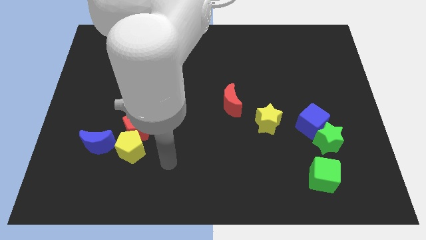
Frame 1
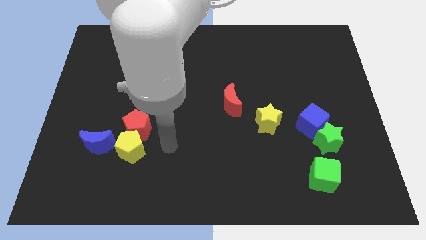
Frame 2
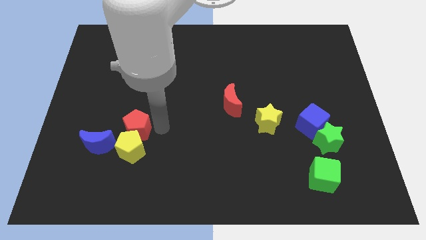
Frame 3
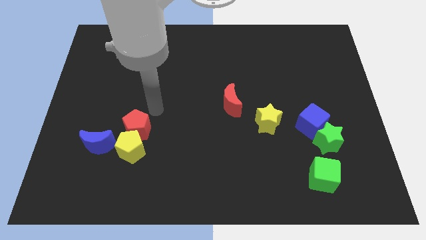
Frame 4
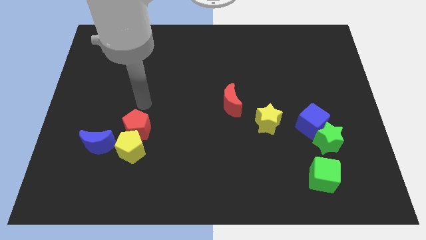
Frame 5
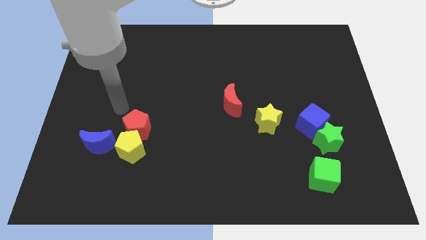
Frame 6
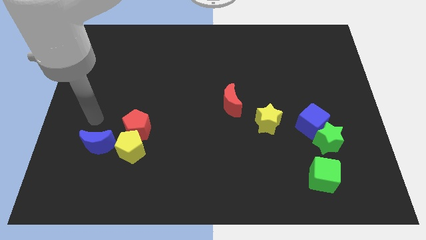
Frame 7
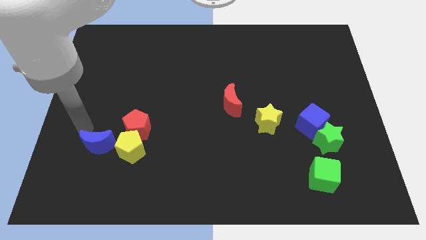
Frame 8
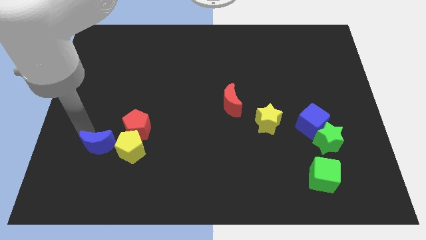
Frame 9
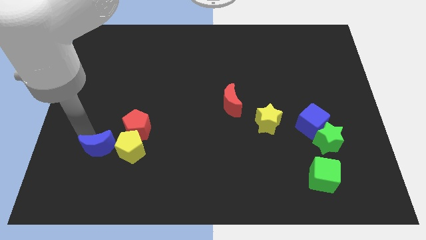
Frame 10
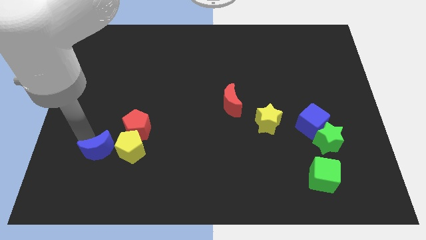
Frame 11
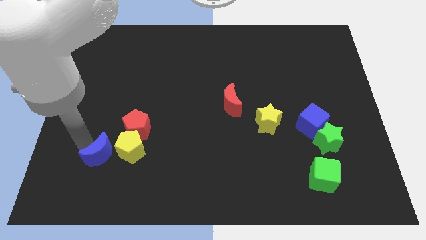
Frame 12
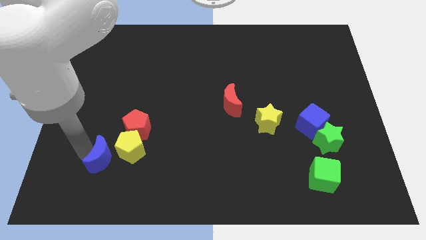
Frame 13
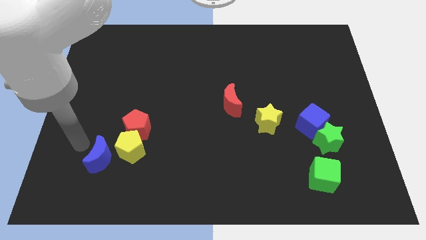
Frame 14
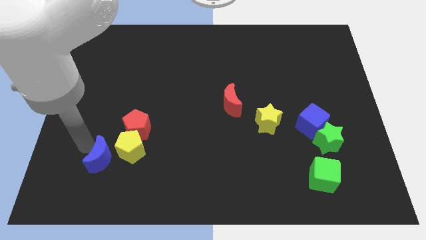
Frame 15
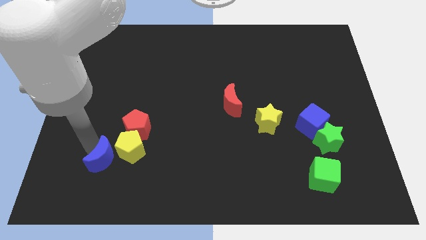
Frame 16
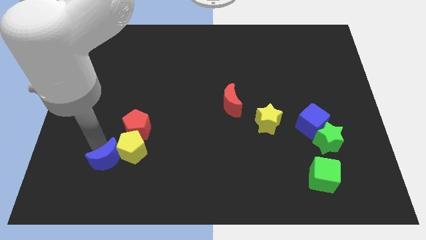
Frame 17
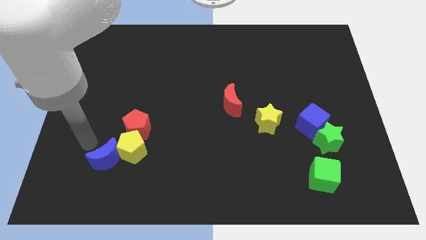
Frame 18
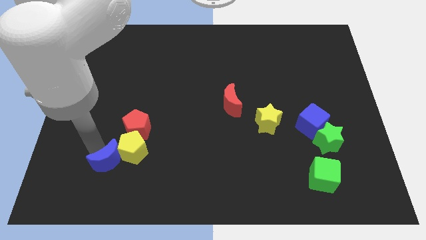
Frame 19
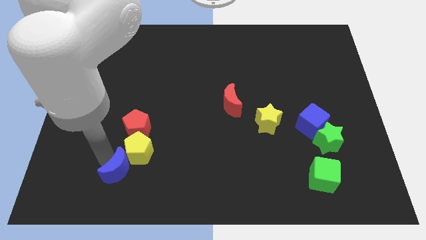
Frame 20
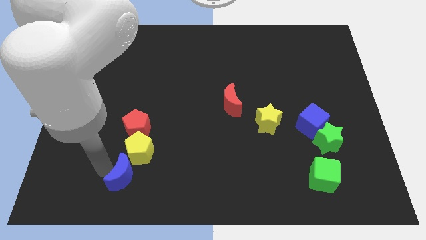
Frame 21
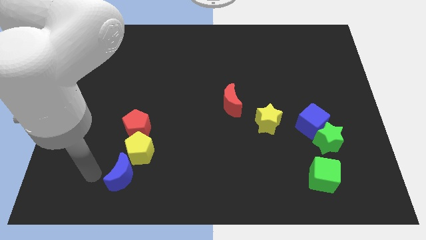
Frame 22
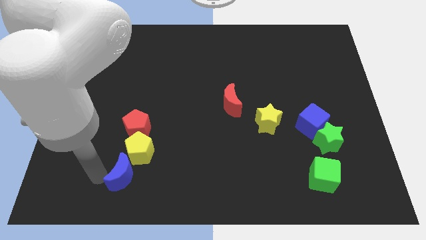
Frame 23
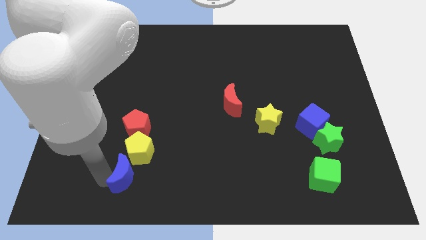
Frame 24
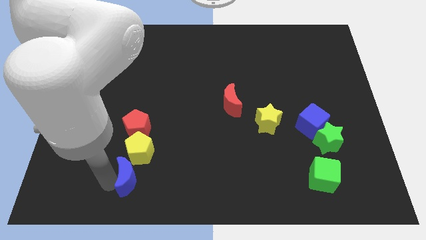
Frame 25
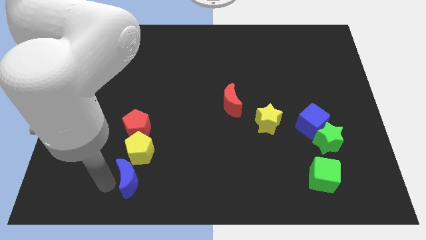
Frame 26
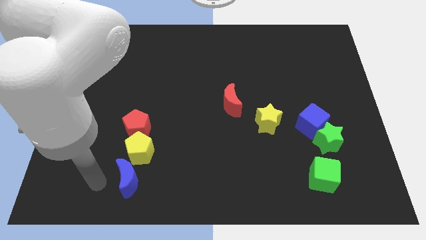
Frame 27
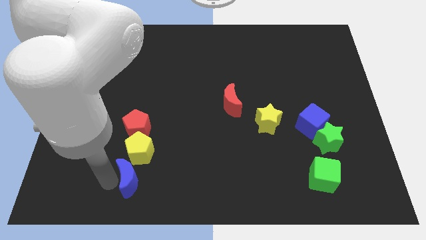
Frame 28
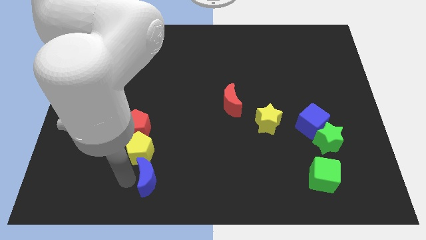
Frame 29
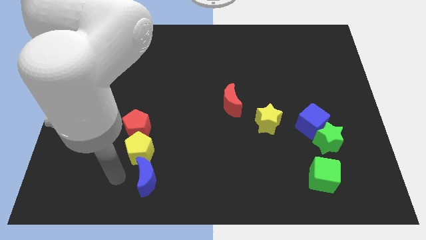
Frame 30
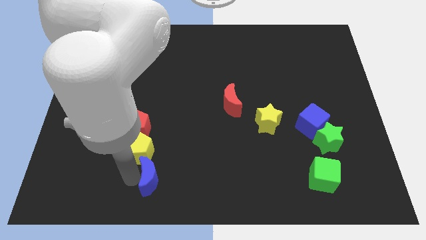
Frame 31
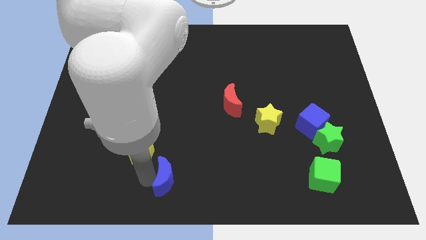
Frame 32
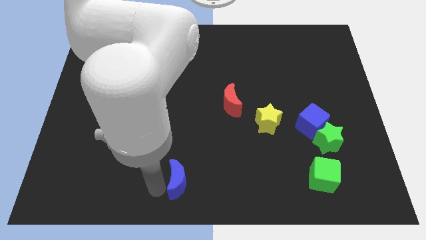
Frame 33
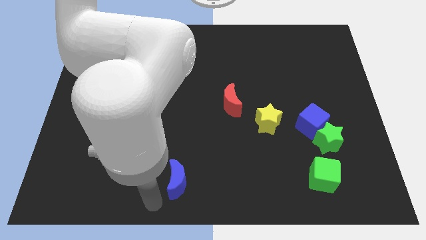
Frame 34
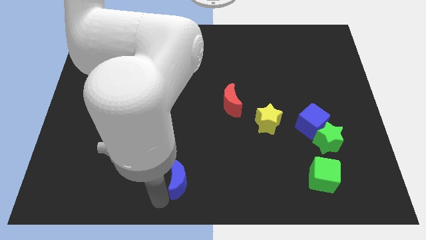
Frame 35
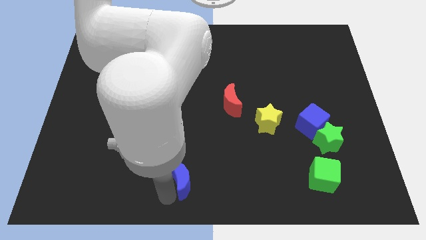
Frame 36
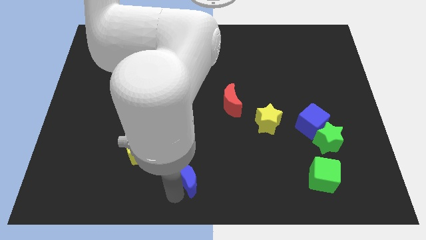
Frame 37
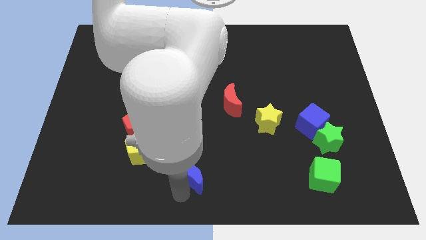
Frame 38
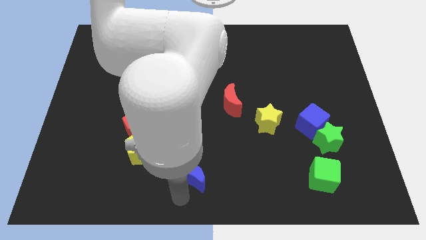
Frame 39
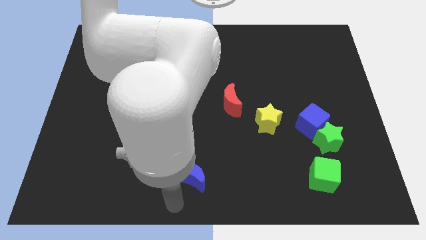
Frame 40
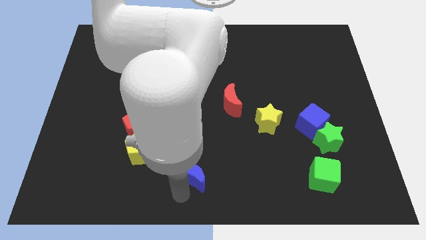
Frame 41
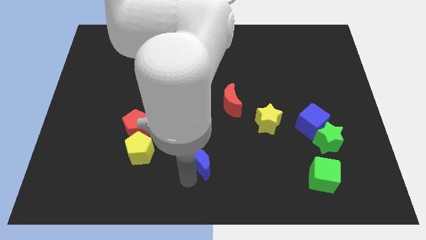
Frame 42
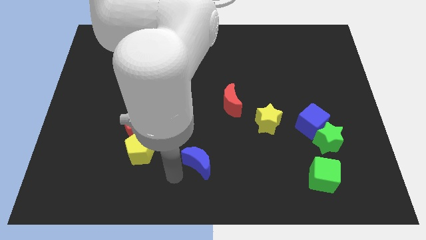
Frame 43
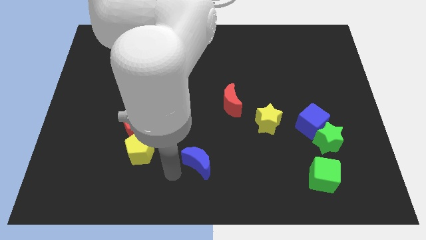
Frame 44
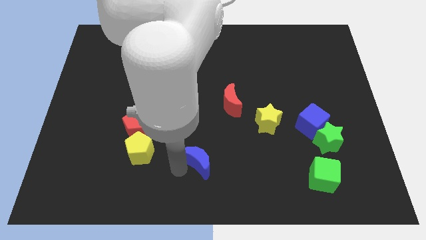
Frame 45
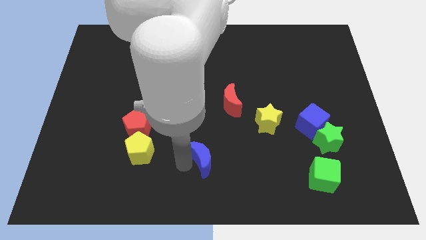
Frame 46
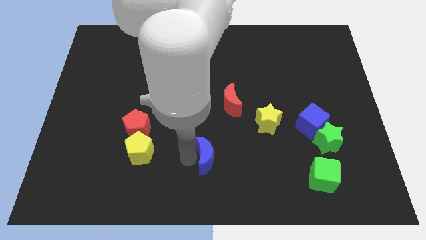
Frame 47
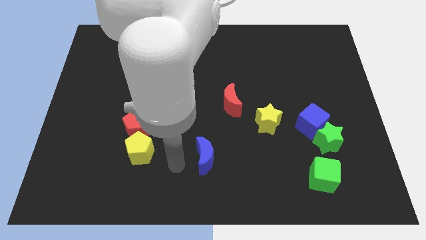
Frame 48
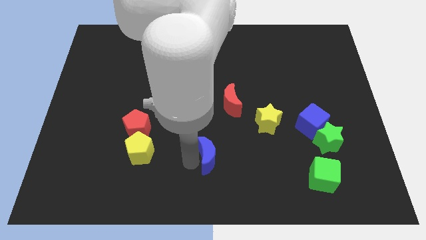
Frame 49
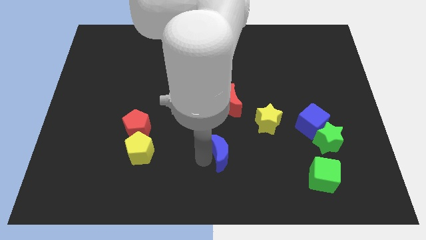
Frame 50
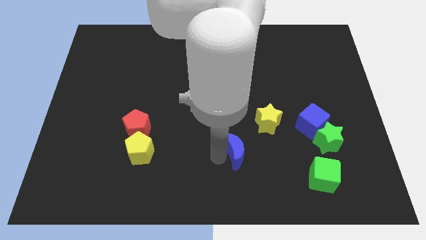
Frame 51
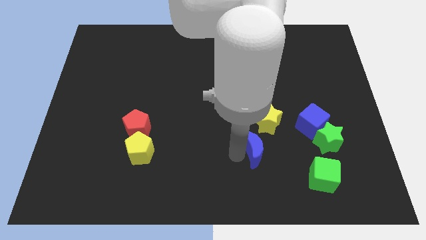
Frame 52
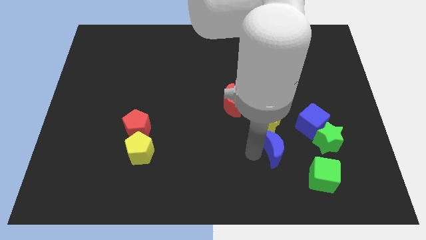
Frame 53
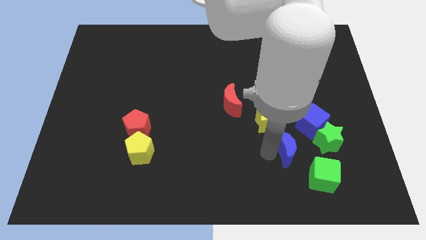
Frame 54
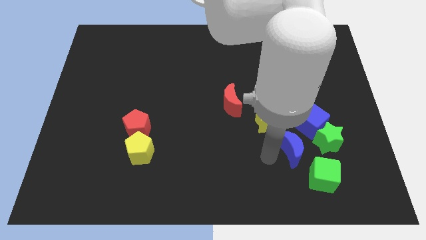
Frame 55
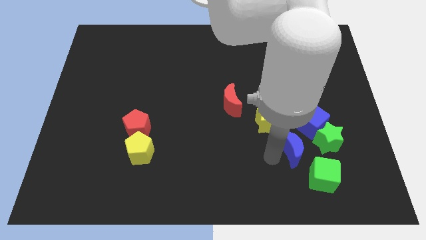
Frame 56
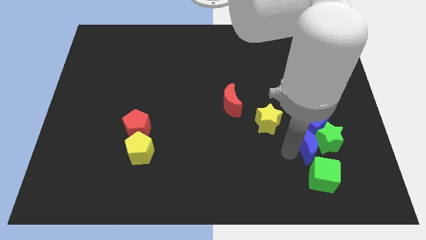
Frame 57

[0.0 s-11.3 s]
push the blue moon close to the green star

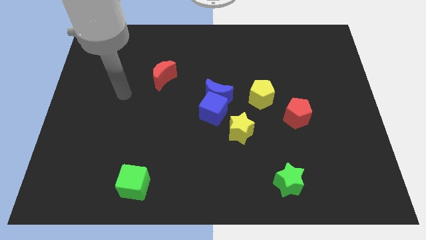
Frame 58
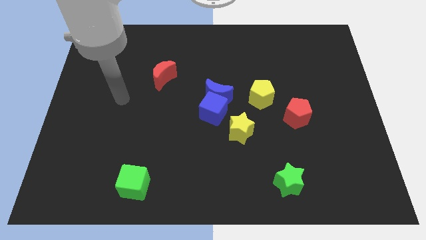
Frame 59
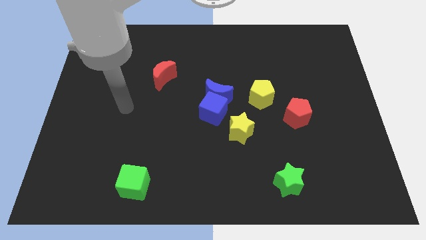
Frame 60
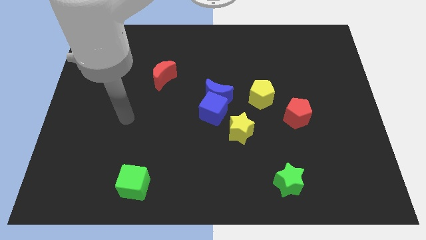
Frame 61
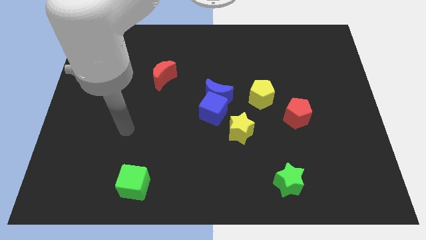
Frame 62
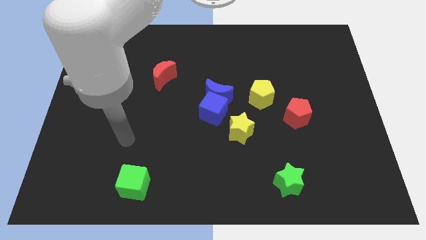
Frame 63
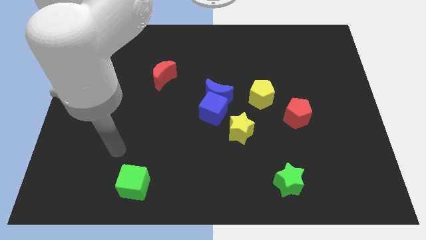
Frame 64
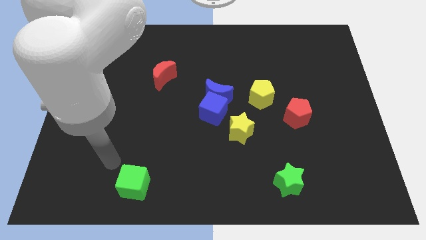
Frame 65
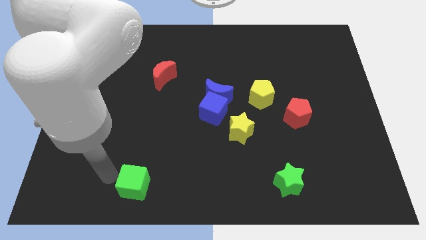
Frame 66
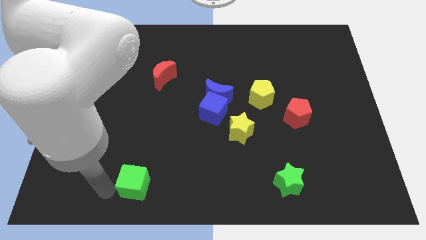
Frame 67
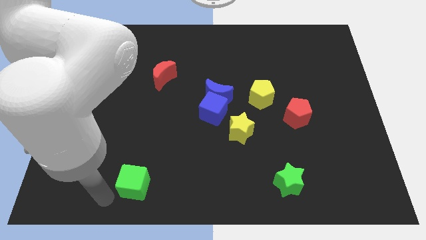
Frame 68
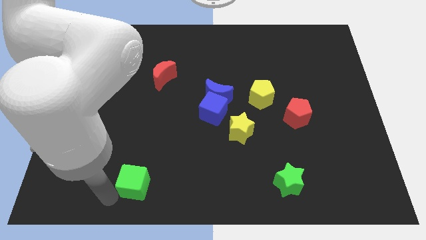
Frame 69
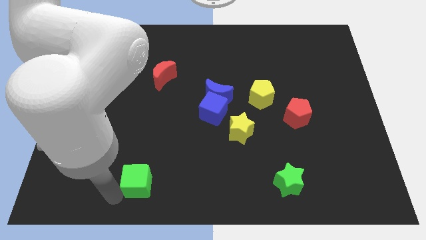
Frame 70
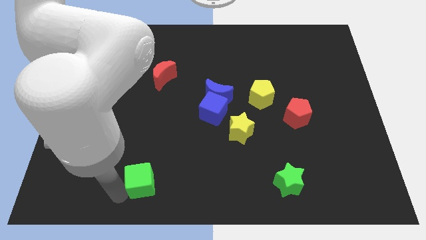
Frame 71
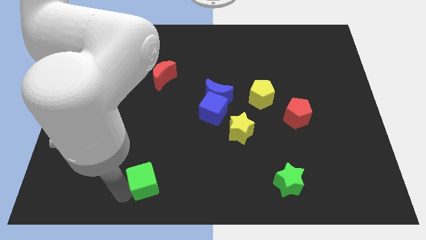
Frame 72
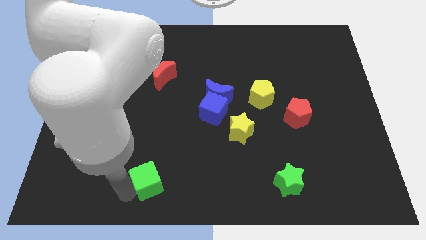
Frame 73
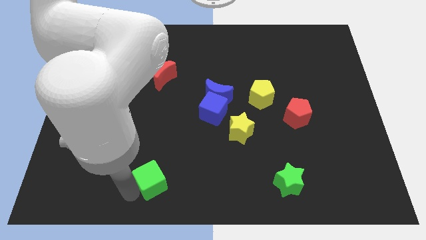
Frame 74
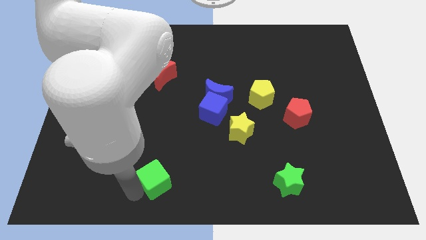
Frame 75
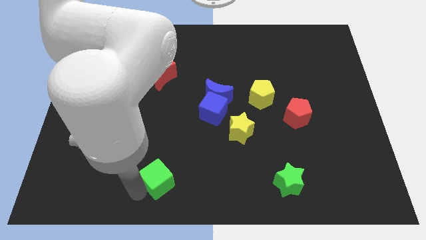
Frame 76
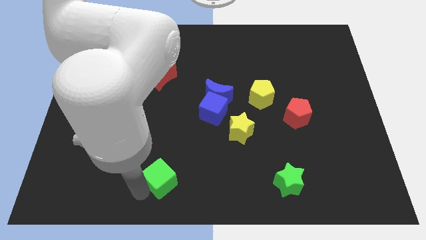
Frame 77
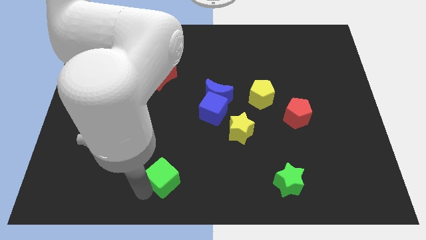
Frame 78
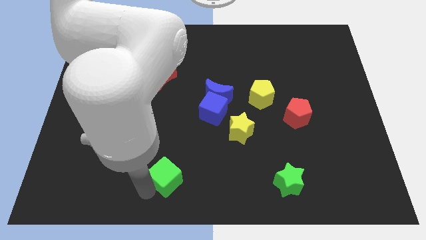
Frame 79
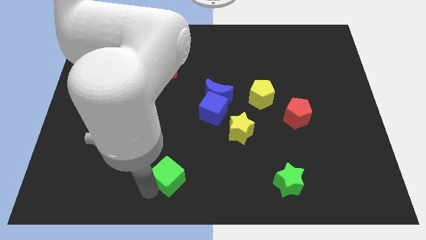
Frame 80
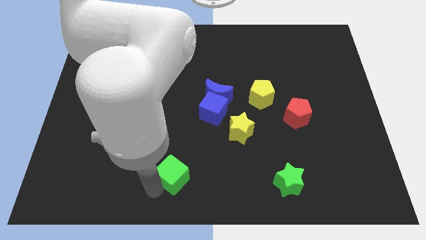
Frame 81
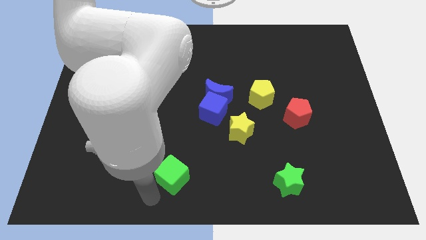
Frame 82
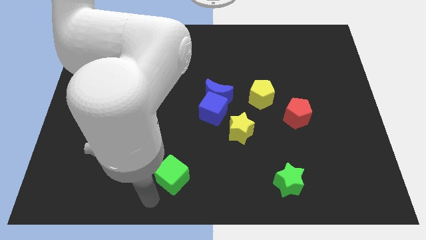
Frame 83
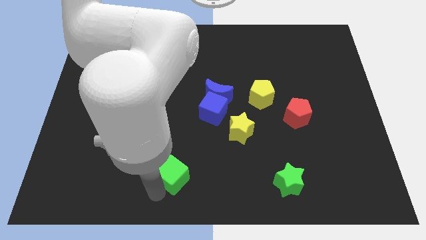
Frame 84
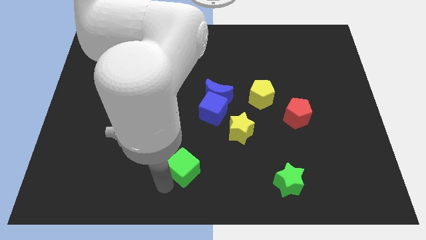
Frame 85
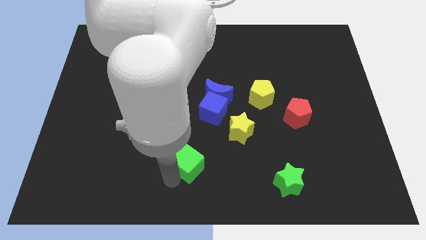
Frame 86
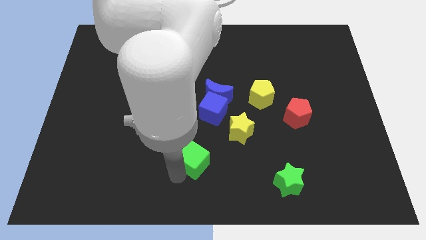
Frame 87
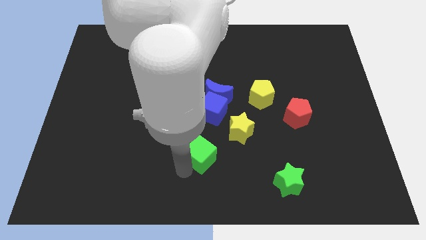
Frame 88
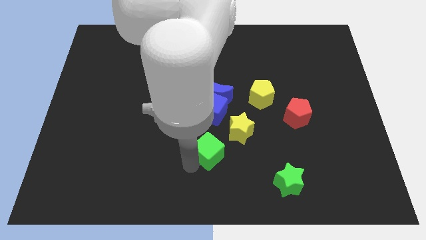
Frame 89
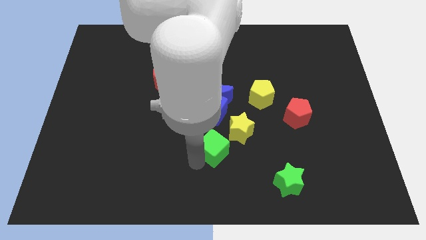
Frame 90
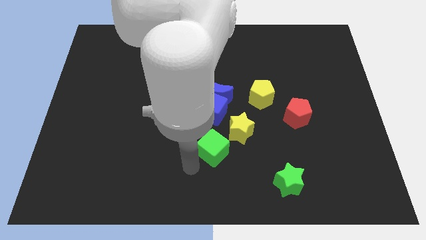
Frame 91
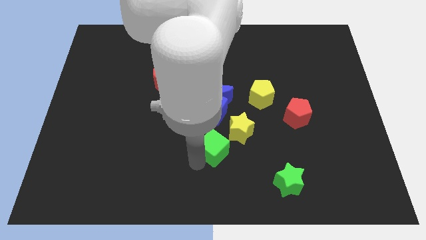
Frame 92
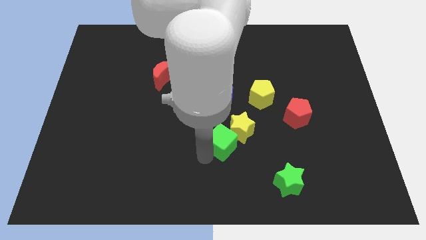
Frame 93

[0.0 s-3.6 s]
push the green cube to the yellow star
